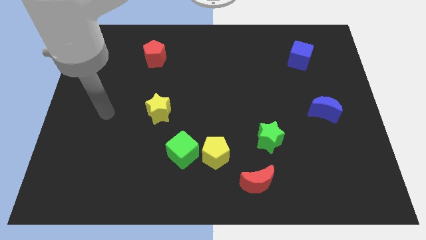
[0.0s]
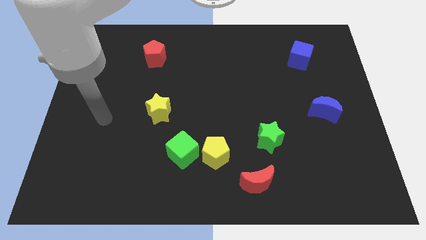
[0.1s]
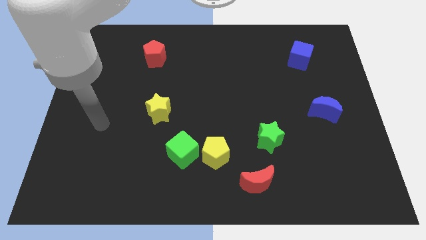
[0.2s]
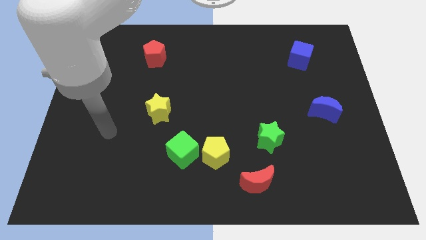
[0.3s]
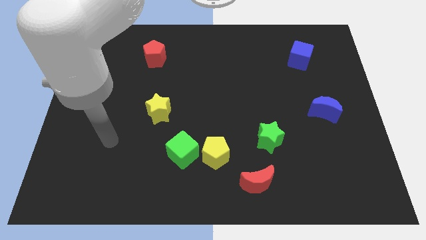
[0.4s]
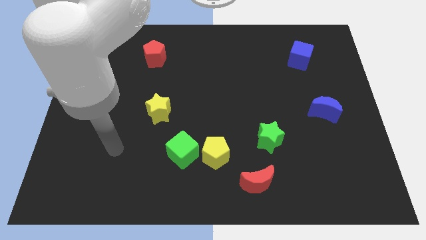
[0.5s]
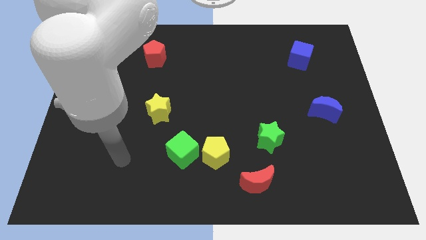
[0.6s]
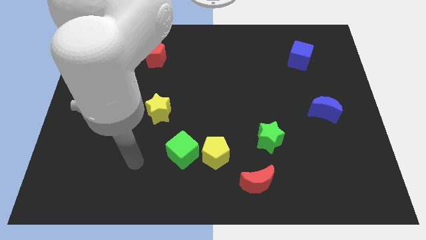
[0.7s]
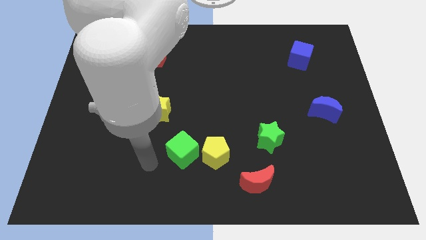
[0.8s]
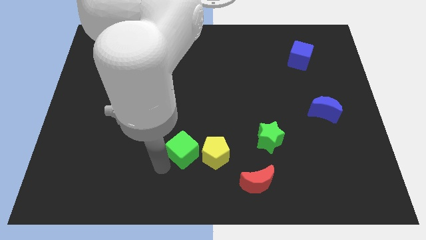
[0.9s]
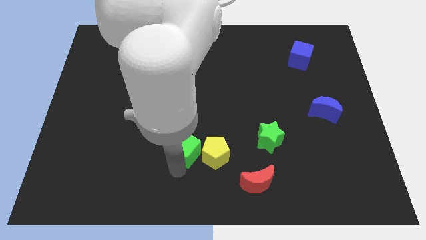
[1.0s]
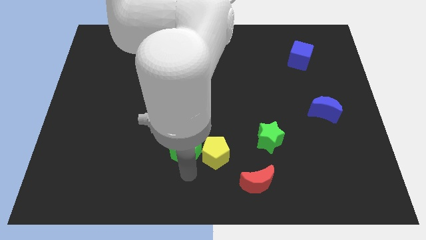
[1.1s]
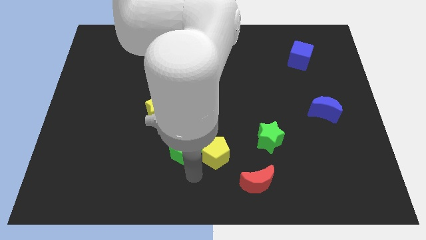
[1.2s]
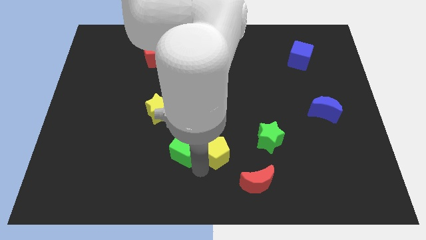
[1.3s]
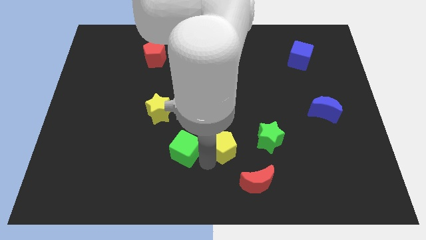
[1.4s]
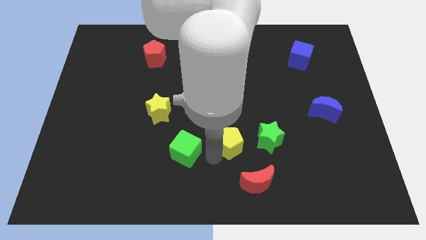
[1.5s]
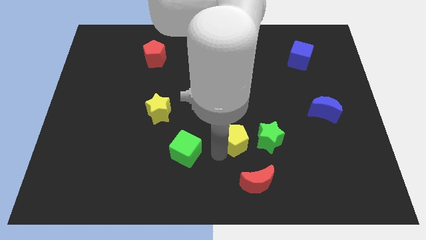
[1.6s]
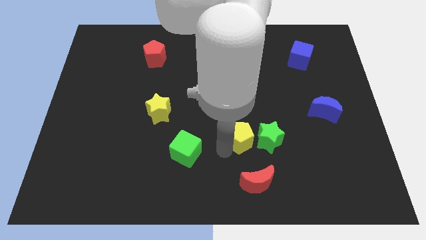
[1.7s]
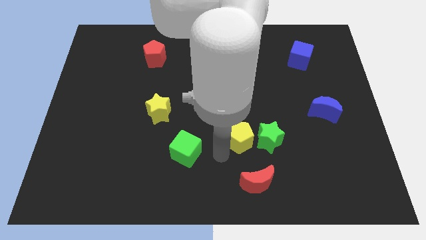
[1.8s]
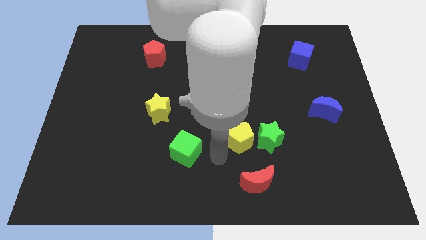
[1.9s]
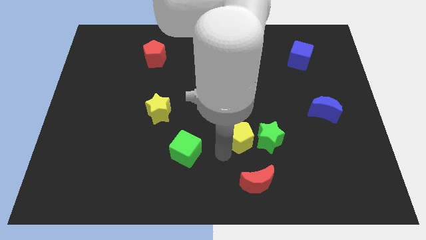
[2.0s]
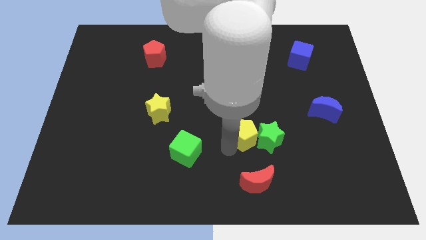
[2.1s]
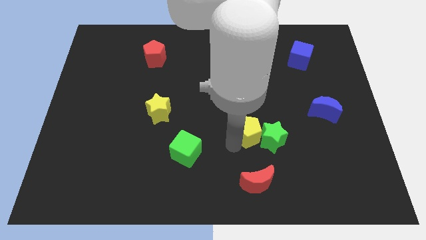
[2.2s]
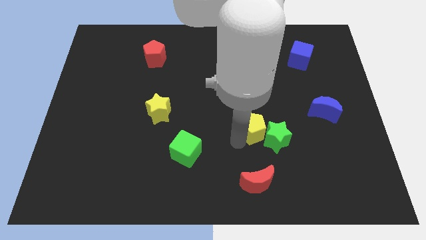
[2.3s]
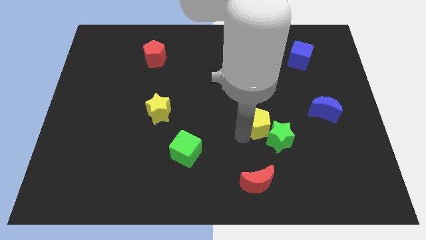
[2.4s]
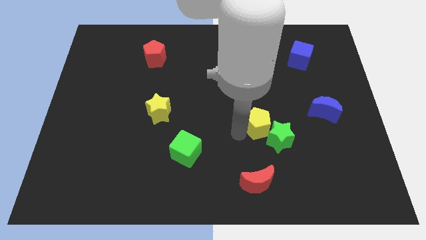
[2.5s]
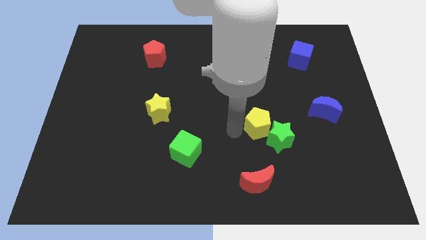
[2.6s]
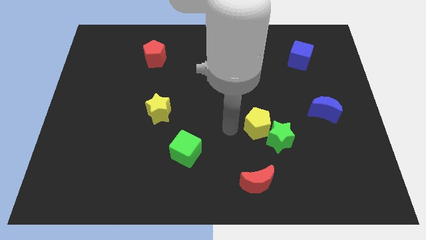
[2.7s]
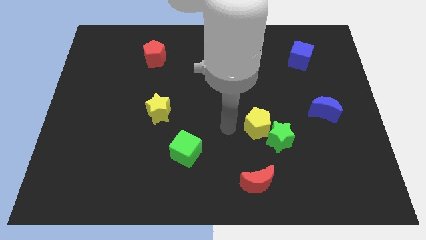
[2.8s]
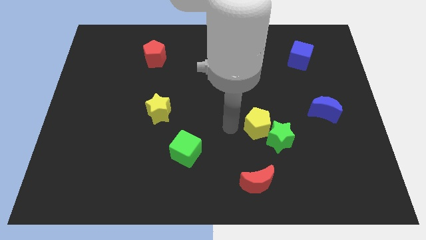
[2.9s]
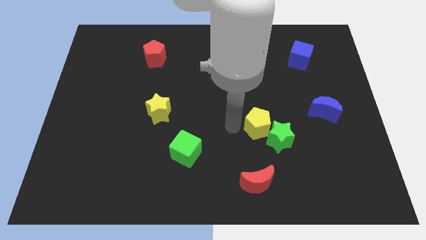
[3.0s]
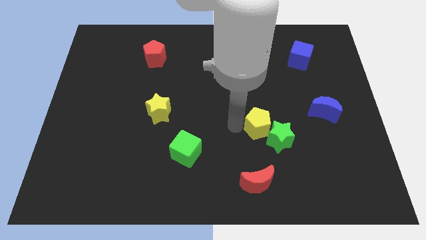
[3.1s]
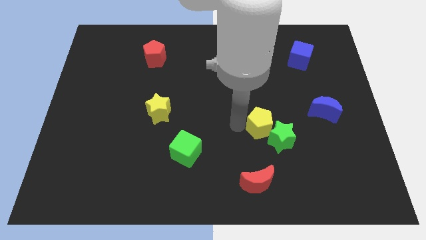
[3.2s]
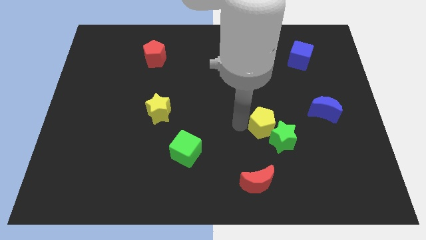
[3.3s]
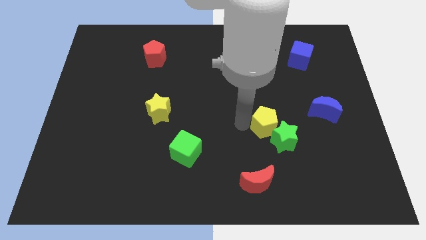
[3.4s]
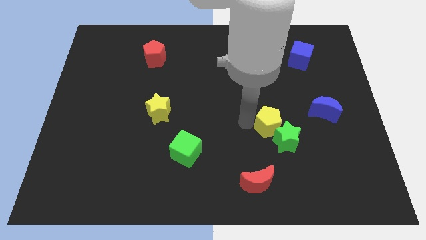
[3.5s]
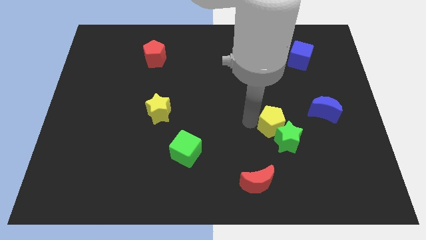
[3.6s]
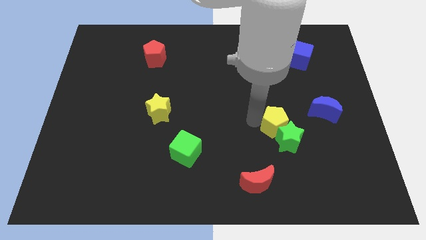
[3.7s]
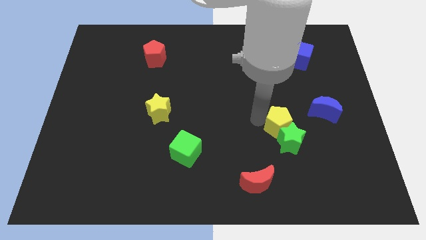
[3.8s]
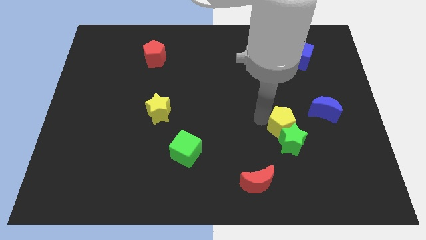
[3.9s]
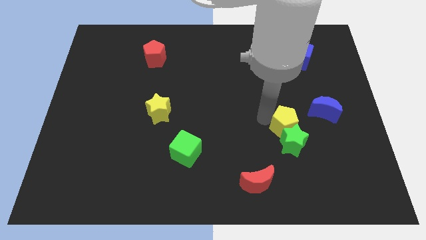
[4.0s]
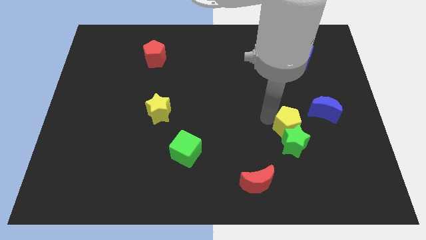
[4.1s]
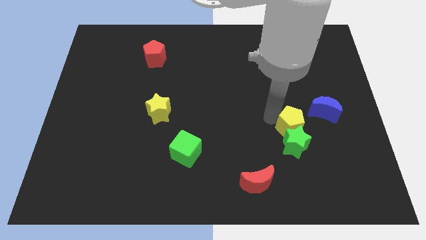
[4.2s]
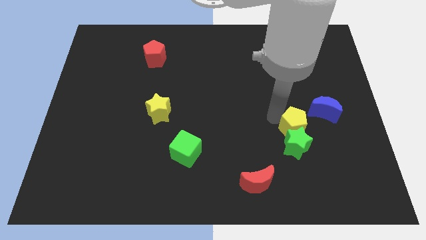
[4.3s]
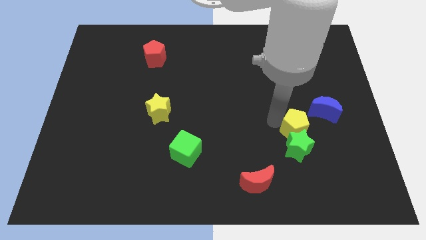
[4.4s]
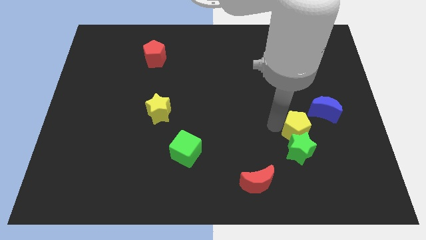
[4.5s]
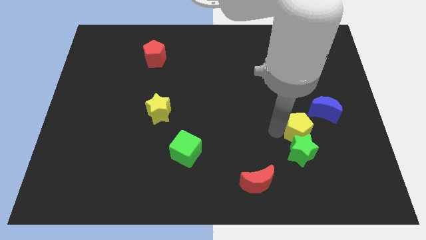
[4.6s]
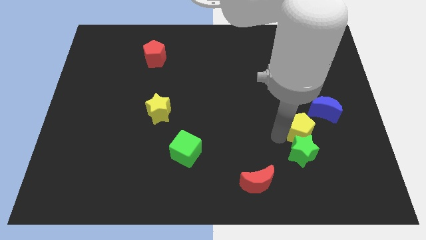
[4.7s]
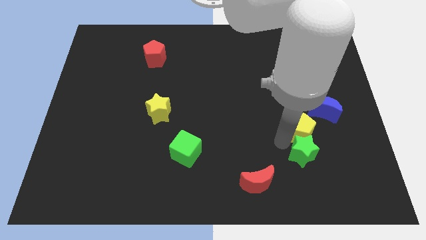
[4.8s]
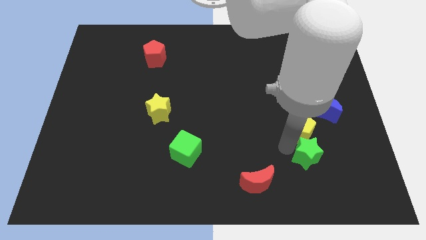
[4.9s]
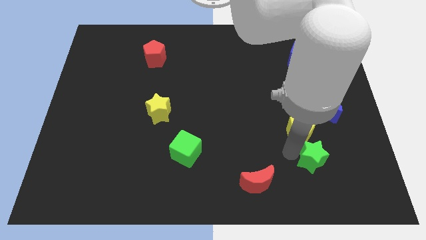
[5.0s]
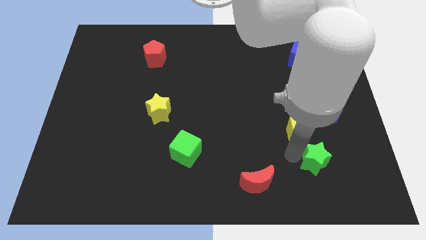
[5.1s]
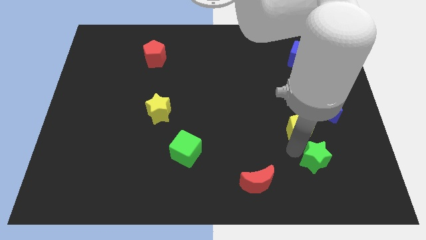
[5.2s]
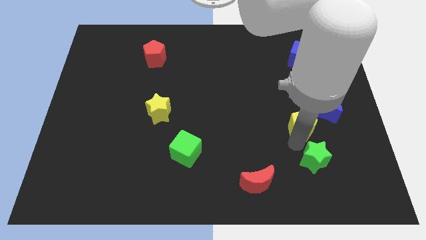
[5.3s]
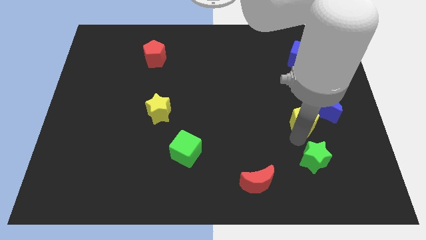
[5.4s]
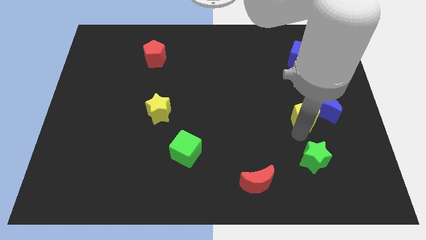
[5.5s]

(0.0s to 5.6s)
put the yellow pentagon next to the blue moon

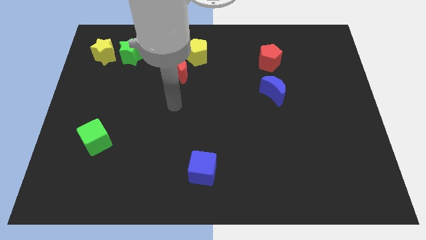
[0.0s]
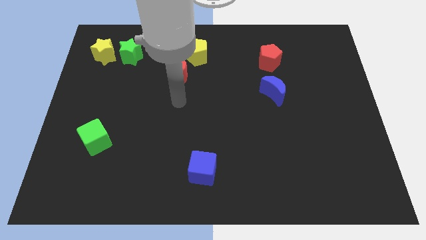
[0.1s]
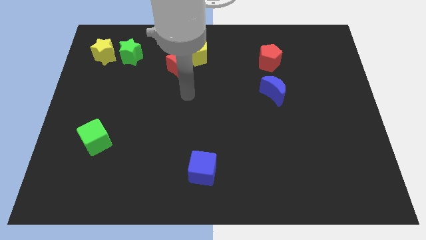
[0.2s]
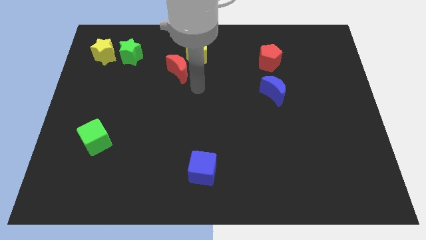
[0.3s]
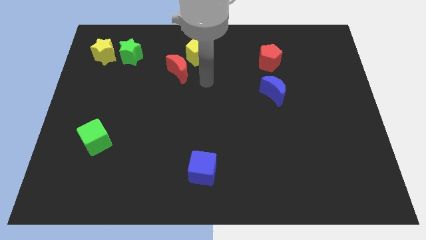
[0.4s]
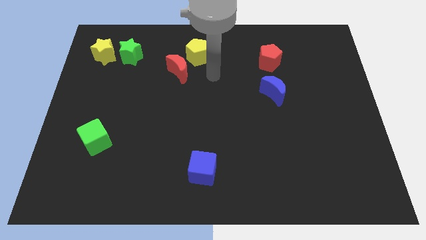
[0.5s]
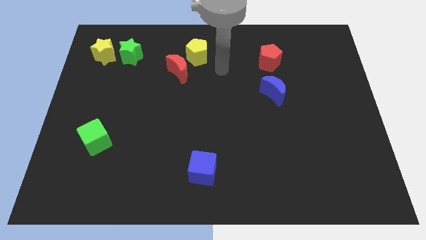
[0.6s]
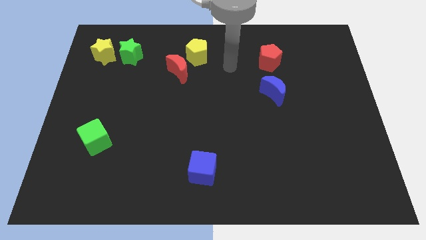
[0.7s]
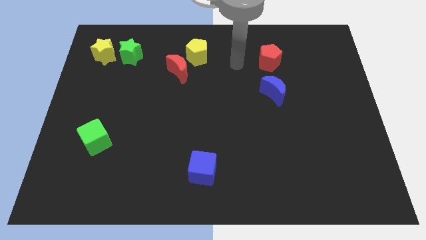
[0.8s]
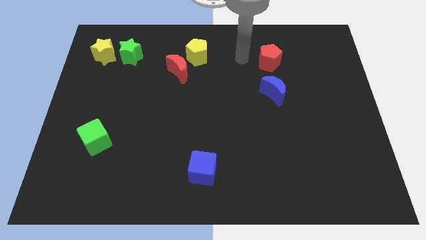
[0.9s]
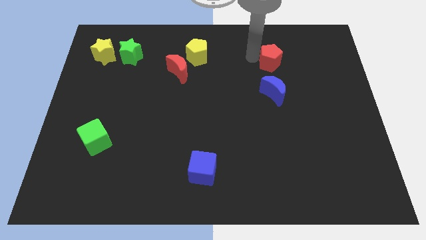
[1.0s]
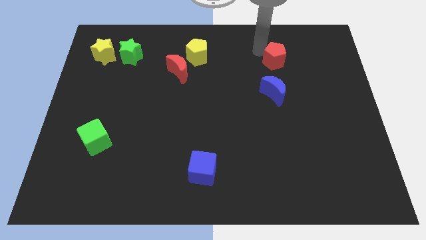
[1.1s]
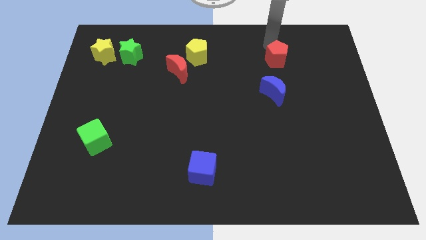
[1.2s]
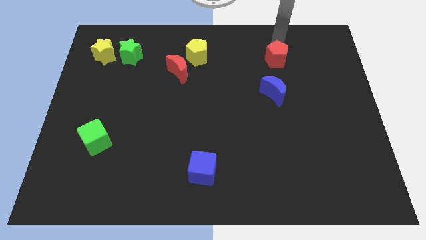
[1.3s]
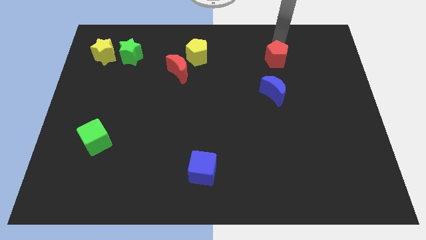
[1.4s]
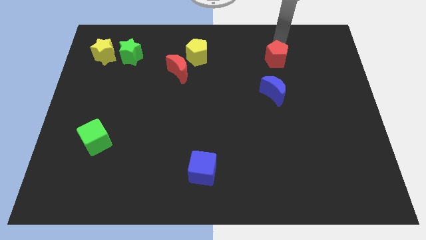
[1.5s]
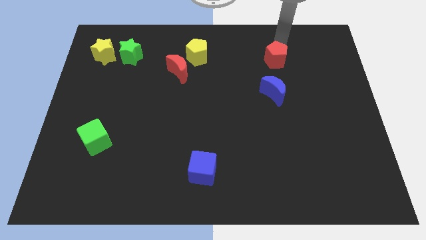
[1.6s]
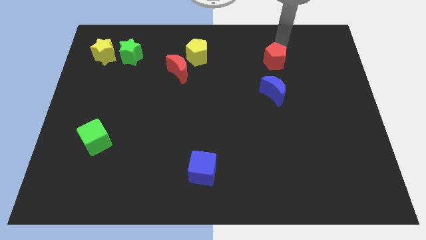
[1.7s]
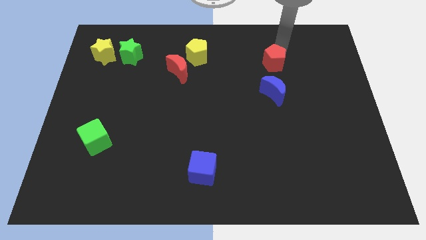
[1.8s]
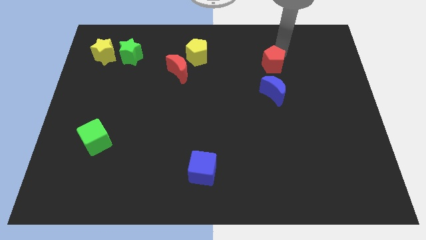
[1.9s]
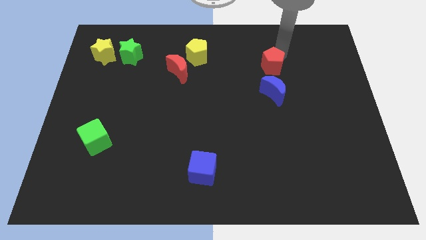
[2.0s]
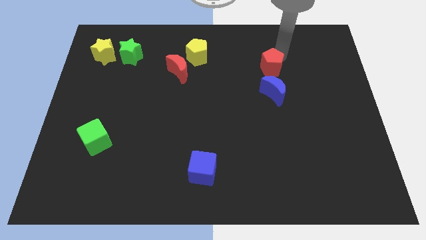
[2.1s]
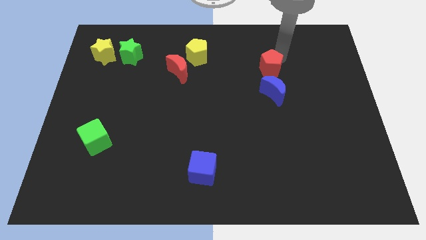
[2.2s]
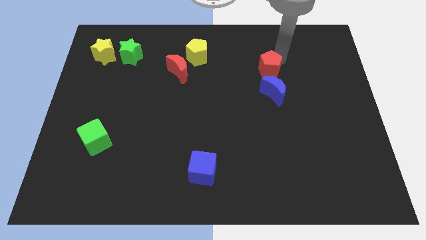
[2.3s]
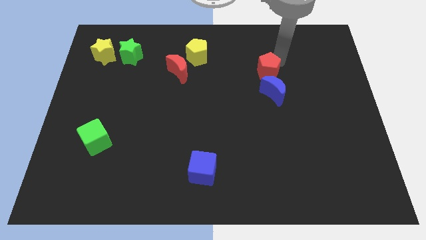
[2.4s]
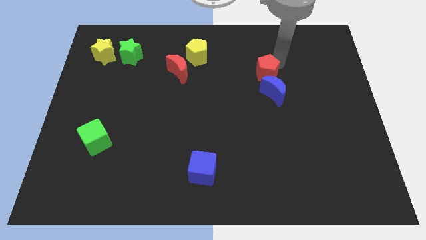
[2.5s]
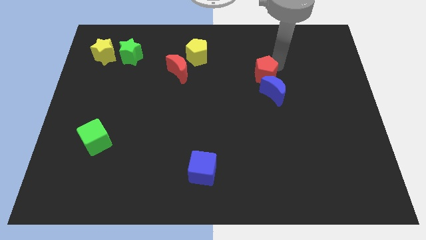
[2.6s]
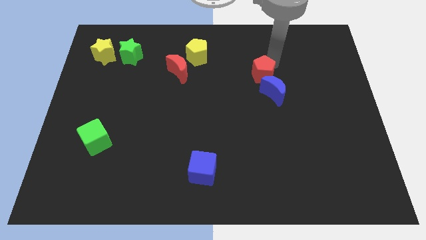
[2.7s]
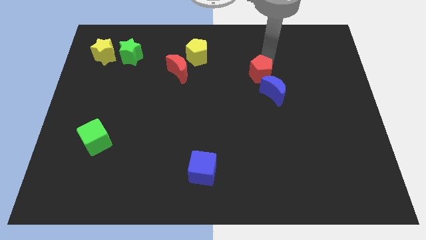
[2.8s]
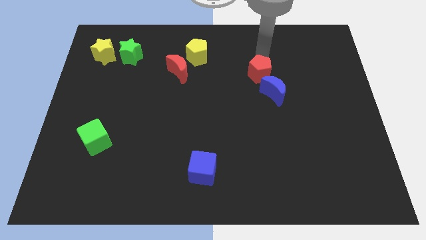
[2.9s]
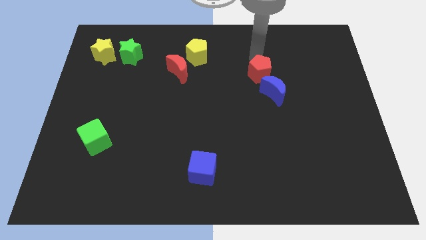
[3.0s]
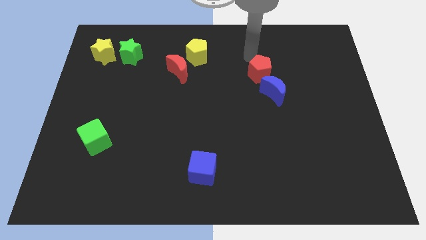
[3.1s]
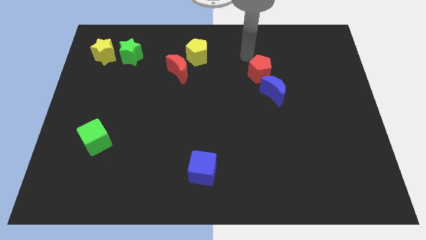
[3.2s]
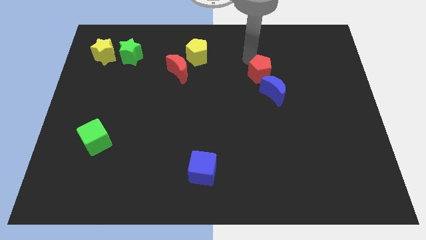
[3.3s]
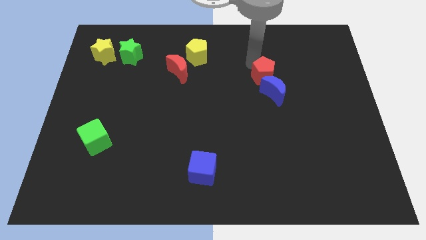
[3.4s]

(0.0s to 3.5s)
slide the red pentagon to the blue moon
